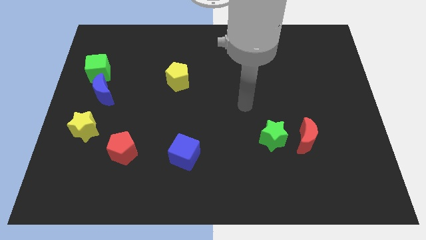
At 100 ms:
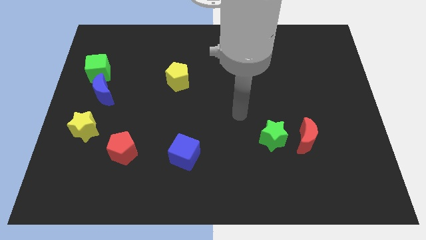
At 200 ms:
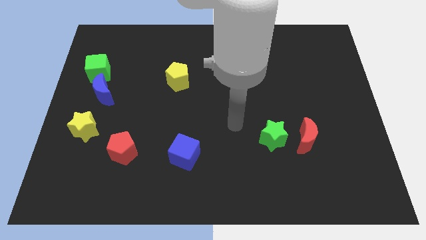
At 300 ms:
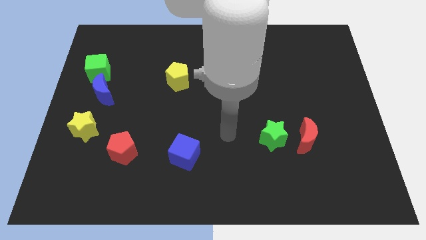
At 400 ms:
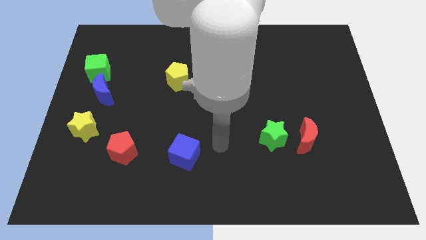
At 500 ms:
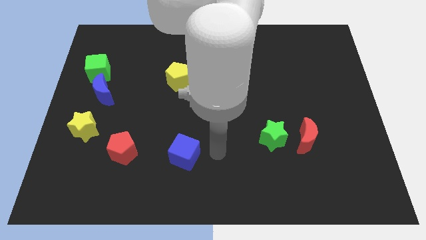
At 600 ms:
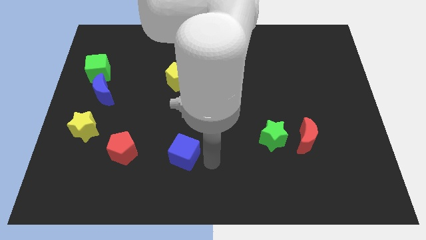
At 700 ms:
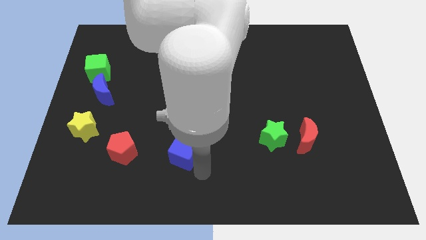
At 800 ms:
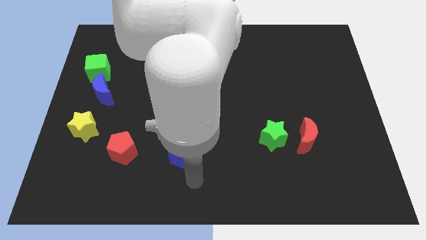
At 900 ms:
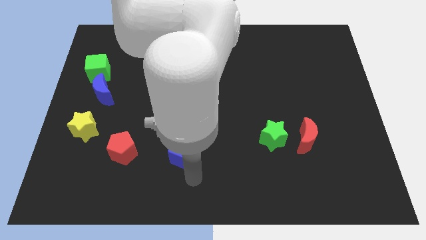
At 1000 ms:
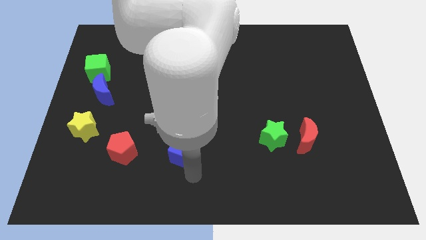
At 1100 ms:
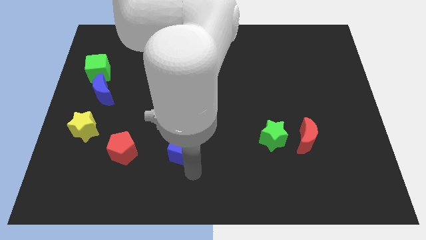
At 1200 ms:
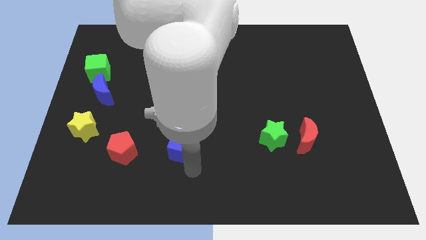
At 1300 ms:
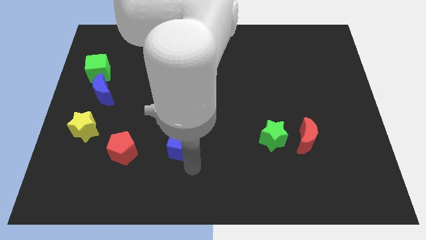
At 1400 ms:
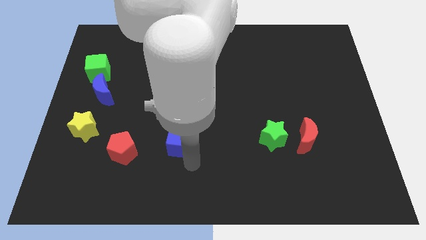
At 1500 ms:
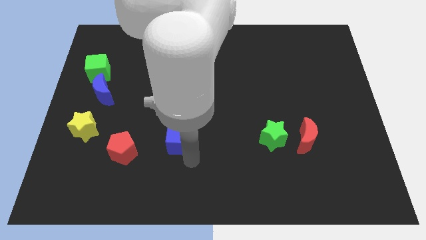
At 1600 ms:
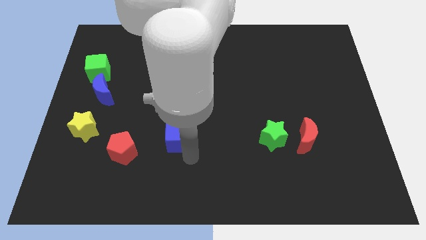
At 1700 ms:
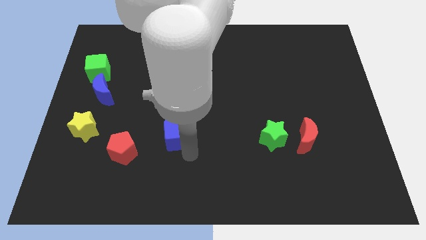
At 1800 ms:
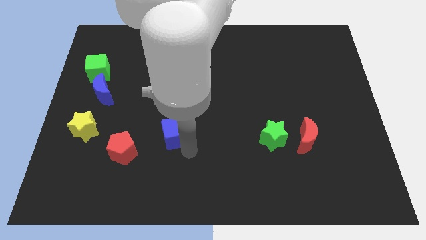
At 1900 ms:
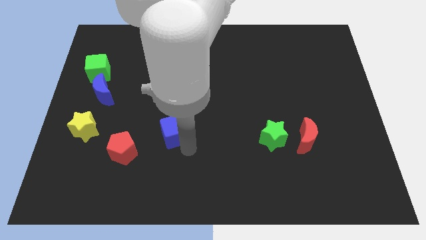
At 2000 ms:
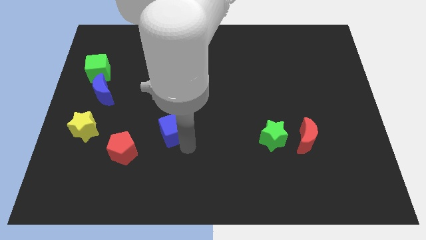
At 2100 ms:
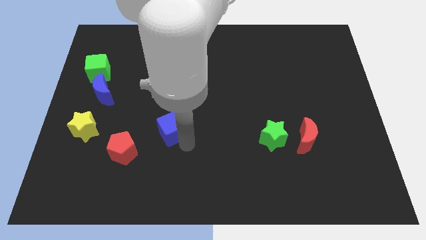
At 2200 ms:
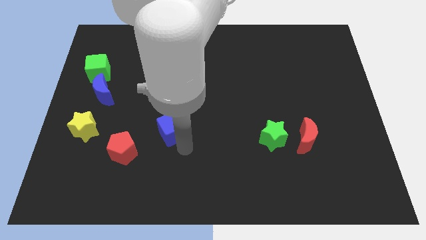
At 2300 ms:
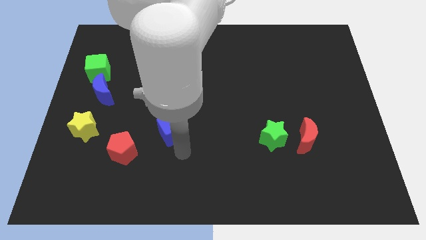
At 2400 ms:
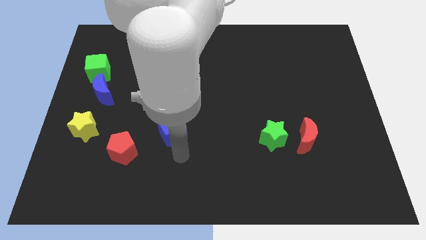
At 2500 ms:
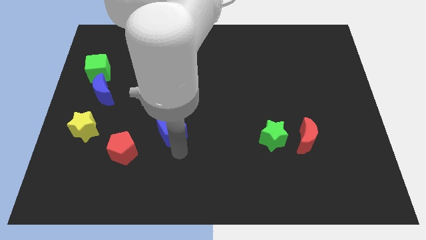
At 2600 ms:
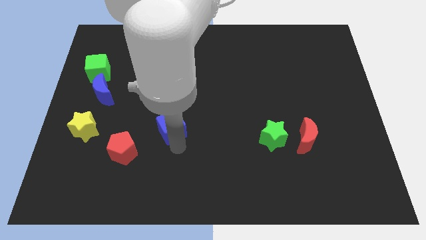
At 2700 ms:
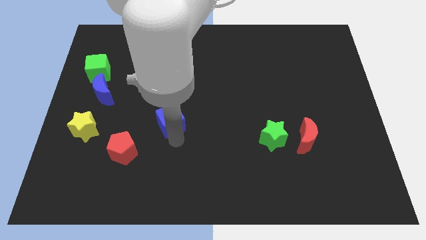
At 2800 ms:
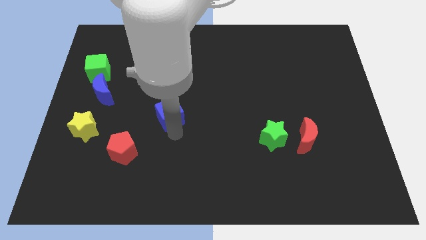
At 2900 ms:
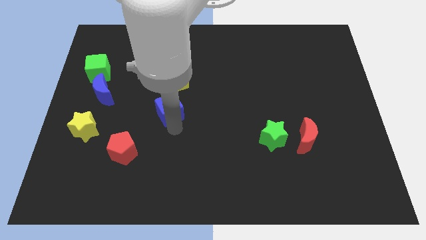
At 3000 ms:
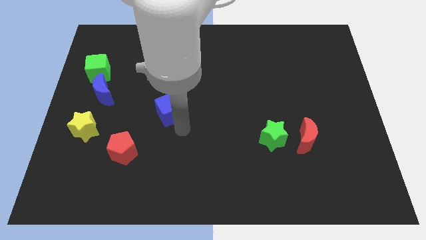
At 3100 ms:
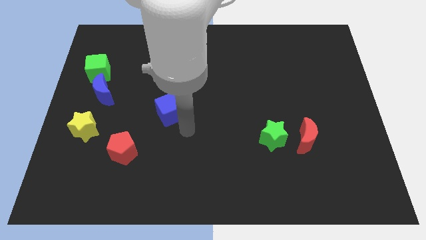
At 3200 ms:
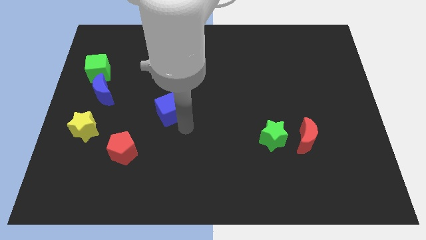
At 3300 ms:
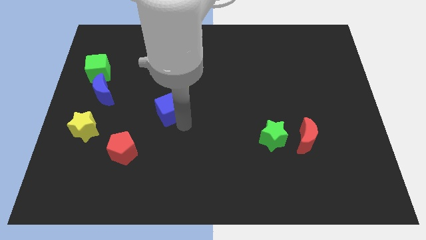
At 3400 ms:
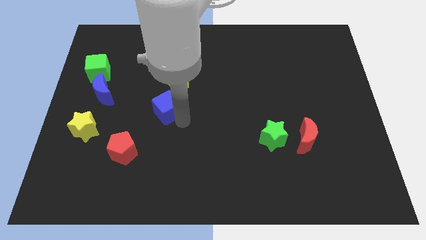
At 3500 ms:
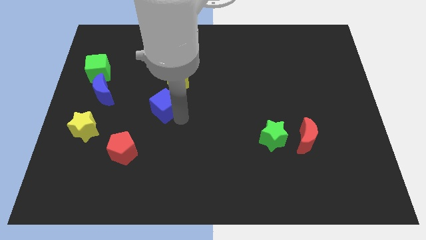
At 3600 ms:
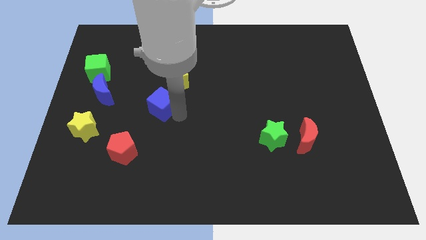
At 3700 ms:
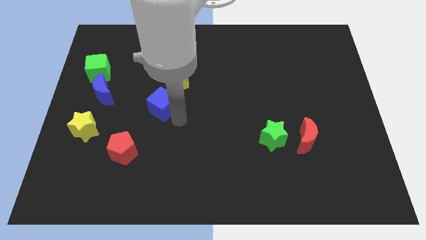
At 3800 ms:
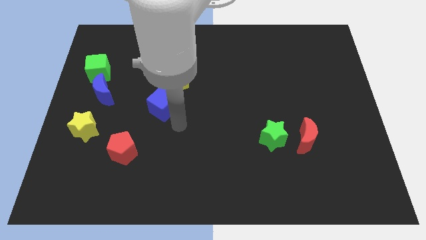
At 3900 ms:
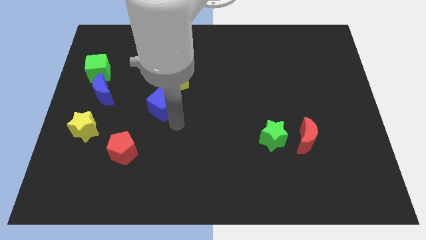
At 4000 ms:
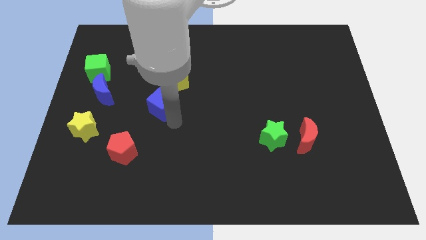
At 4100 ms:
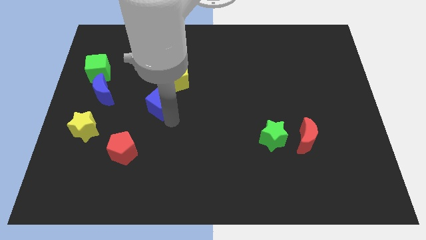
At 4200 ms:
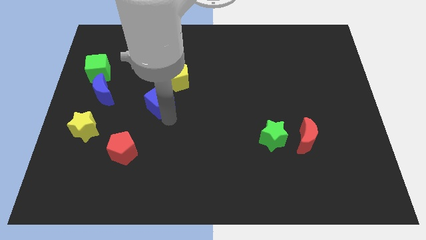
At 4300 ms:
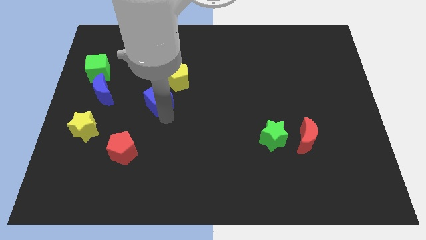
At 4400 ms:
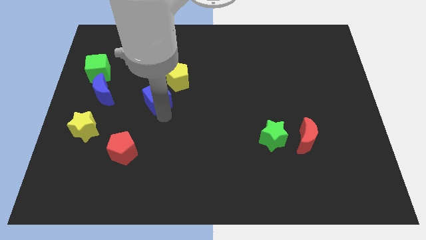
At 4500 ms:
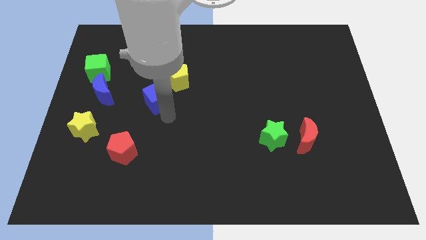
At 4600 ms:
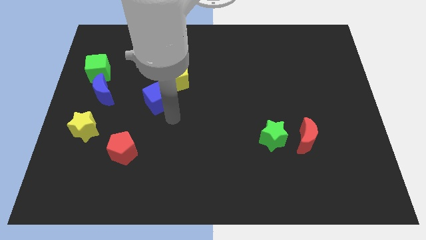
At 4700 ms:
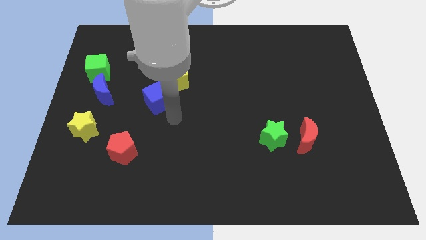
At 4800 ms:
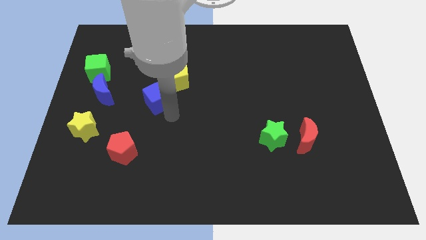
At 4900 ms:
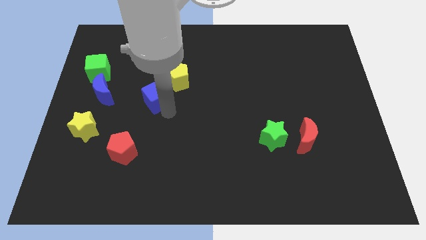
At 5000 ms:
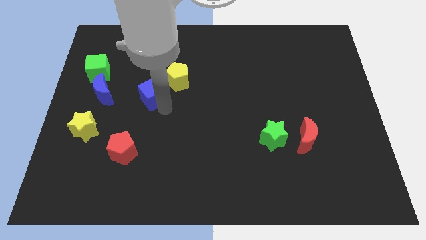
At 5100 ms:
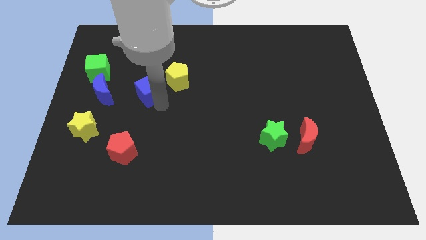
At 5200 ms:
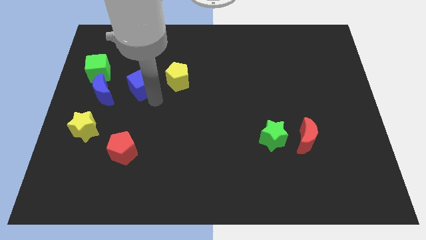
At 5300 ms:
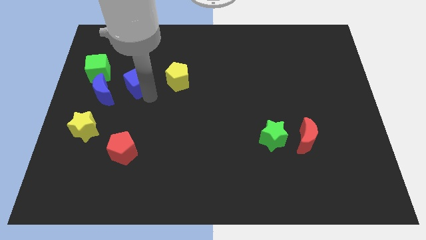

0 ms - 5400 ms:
push the blue cube to the right of the green cube

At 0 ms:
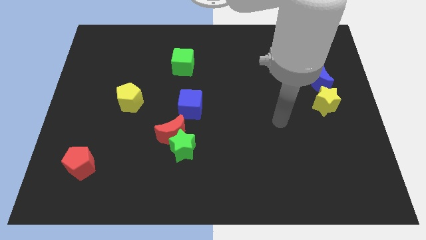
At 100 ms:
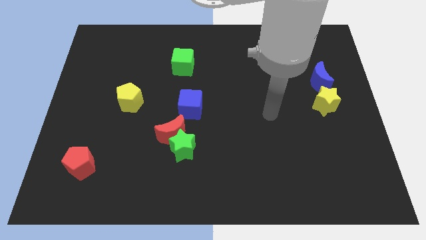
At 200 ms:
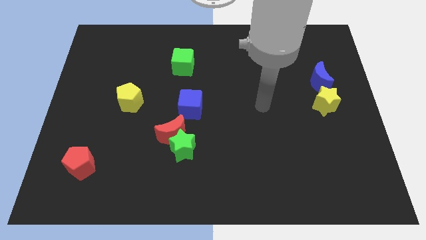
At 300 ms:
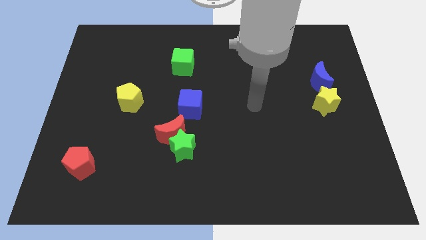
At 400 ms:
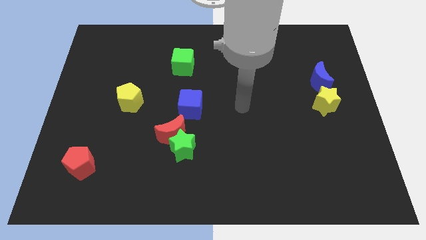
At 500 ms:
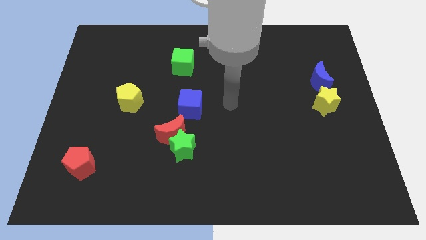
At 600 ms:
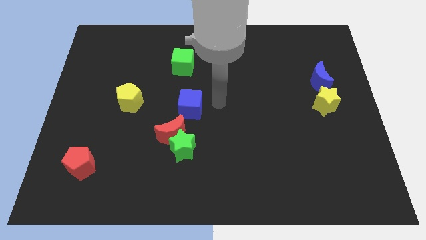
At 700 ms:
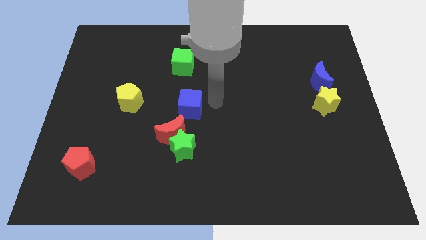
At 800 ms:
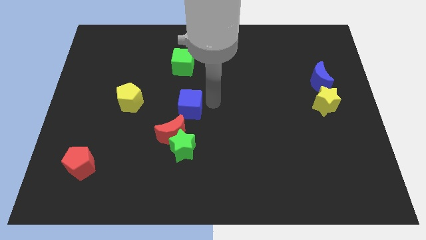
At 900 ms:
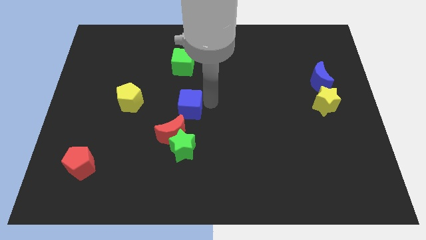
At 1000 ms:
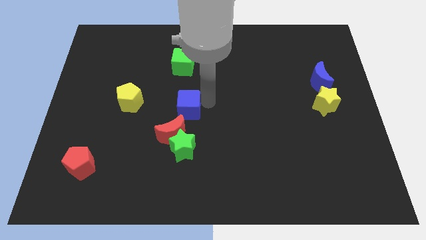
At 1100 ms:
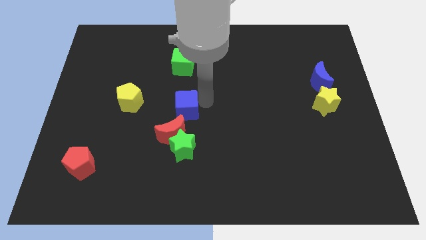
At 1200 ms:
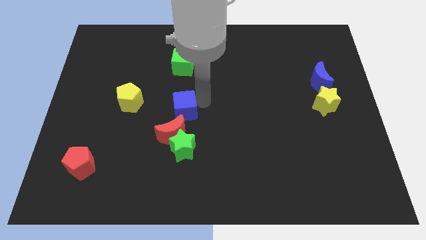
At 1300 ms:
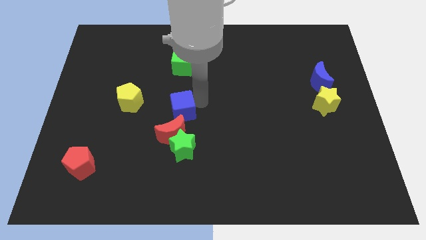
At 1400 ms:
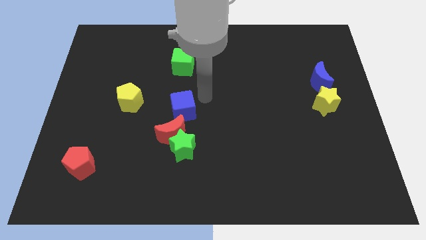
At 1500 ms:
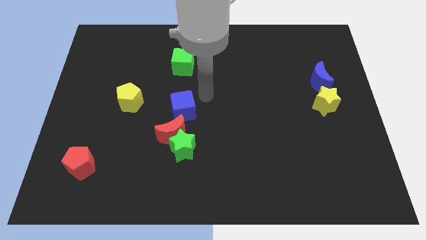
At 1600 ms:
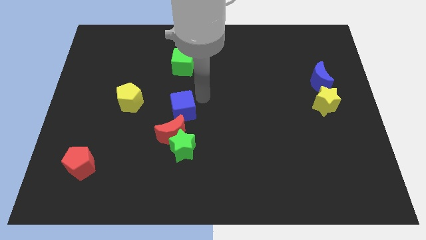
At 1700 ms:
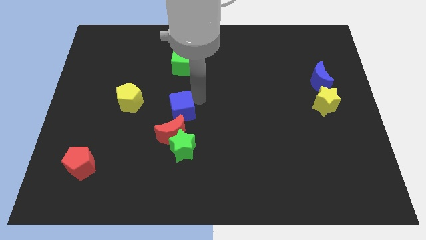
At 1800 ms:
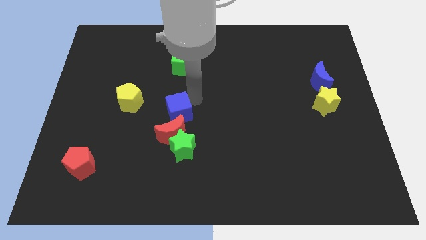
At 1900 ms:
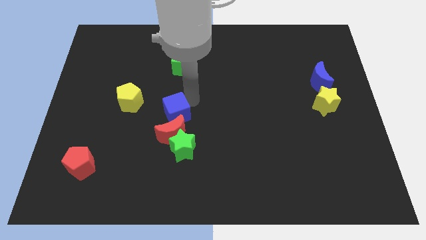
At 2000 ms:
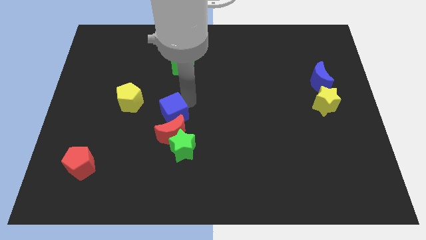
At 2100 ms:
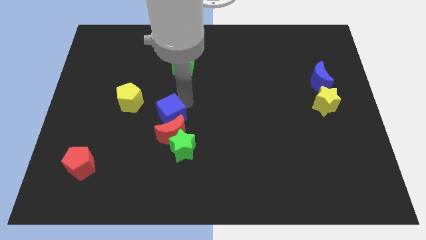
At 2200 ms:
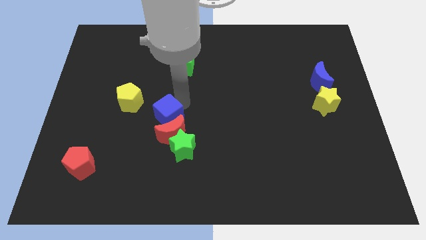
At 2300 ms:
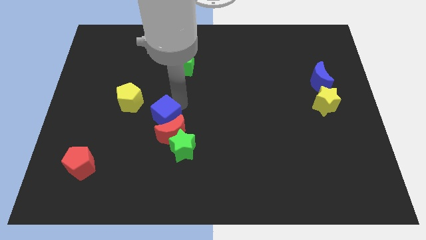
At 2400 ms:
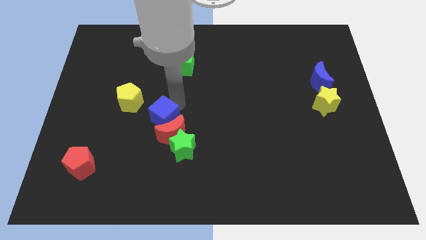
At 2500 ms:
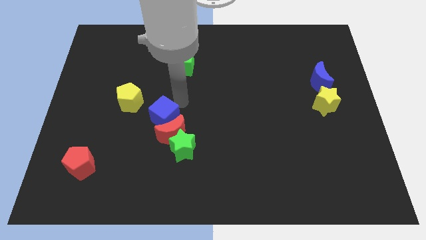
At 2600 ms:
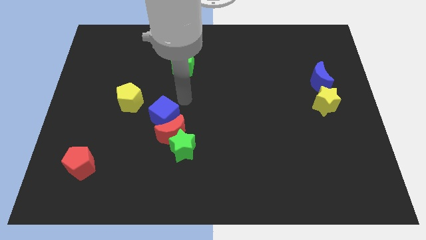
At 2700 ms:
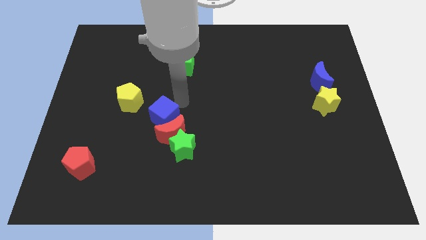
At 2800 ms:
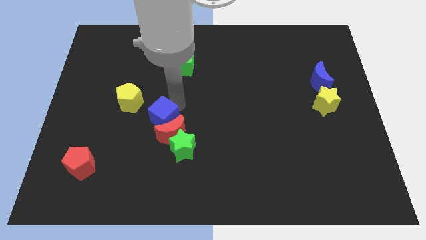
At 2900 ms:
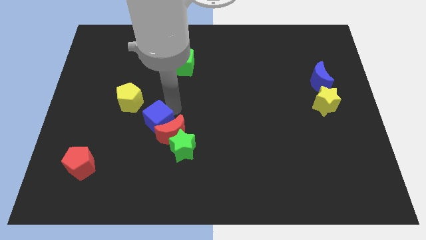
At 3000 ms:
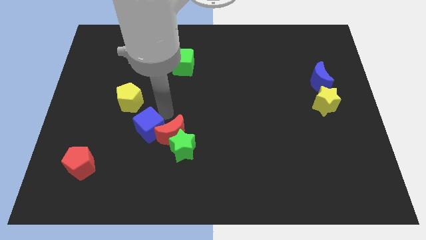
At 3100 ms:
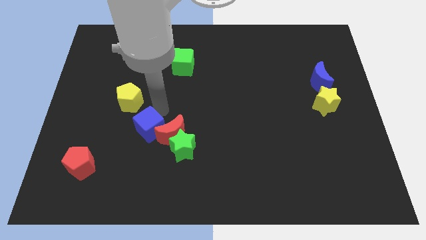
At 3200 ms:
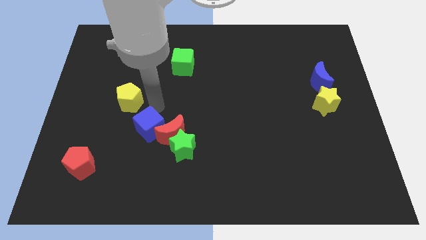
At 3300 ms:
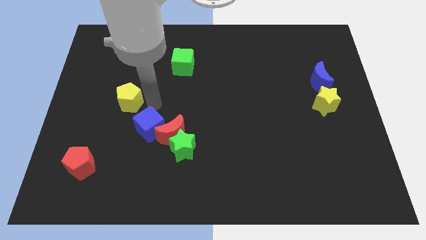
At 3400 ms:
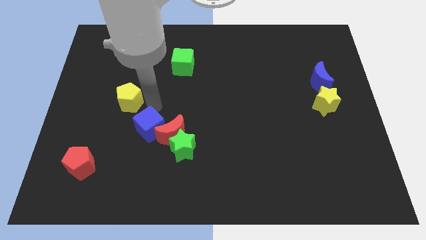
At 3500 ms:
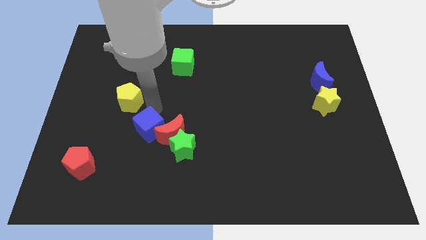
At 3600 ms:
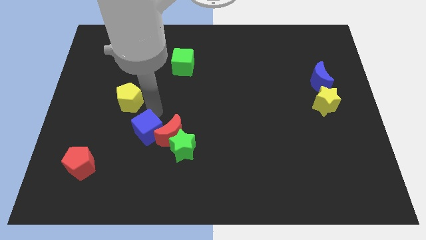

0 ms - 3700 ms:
move the blue cube diagonally down and to the left of the red moon
